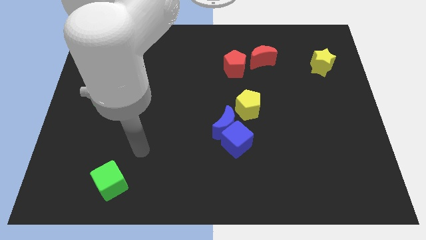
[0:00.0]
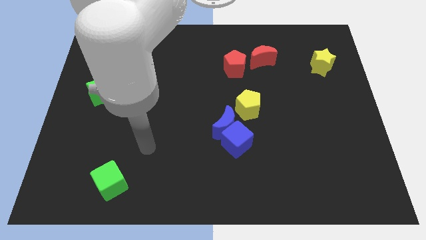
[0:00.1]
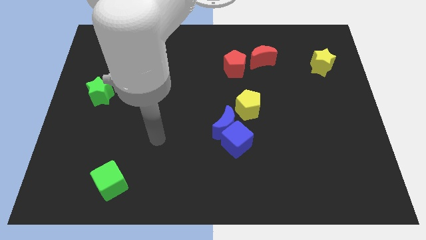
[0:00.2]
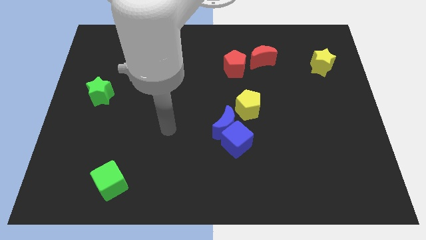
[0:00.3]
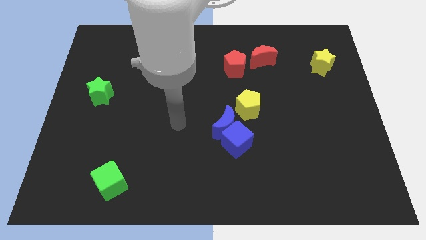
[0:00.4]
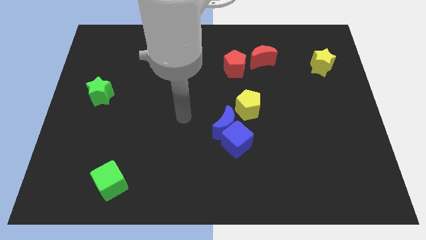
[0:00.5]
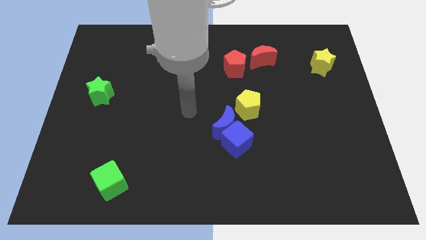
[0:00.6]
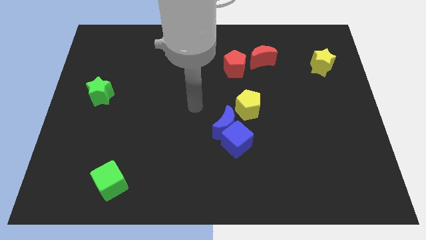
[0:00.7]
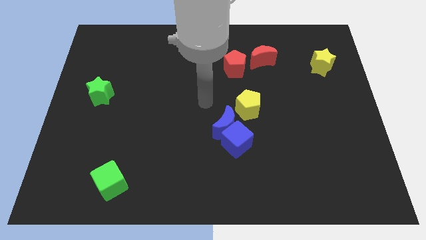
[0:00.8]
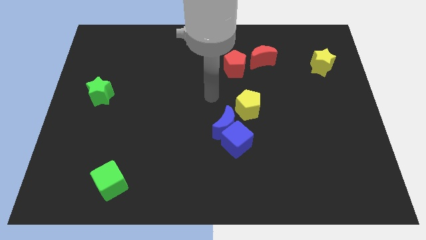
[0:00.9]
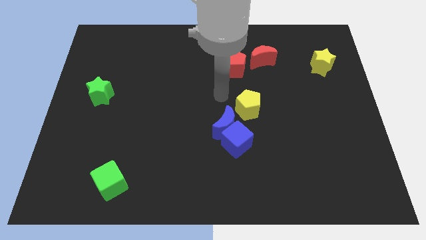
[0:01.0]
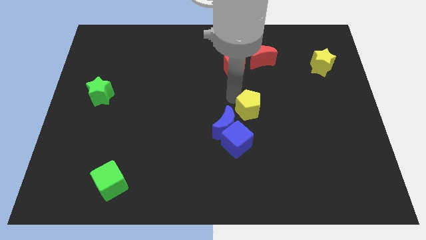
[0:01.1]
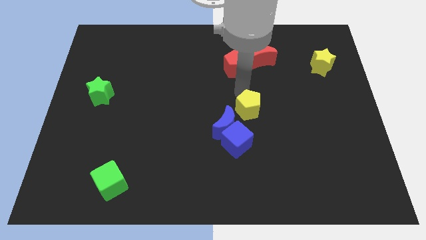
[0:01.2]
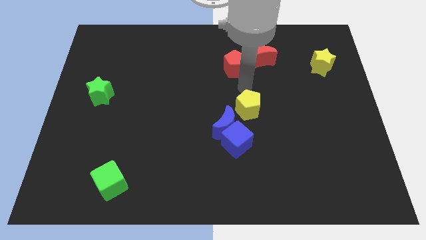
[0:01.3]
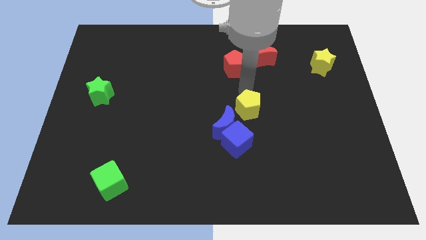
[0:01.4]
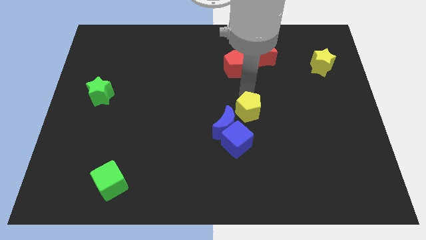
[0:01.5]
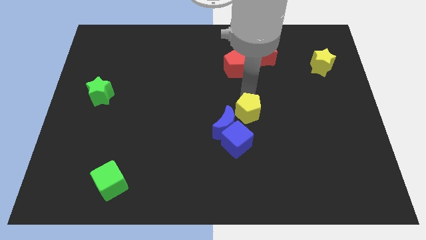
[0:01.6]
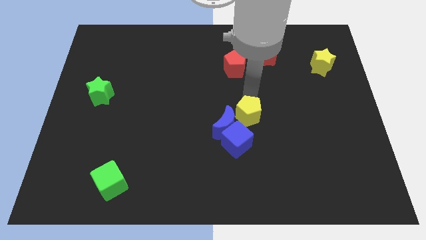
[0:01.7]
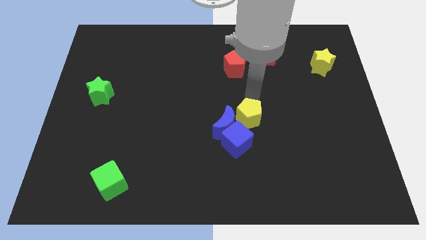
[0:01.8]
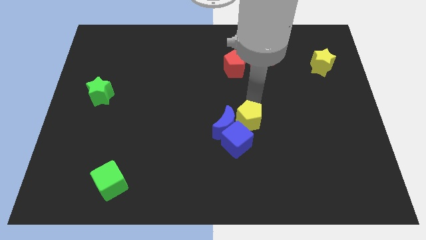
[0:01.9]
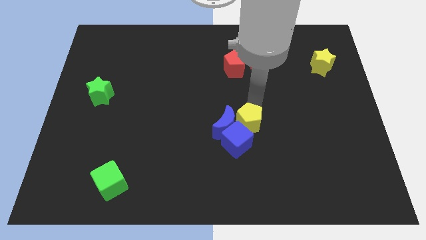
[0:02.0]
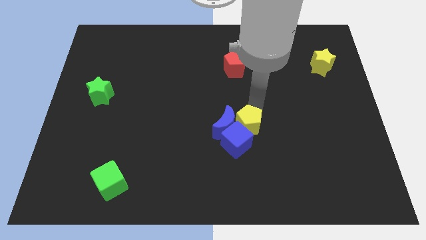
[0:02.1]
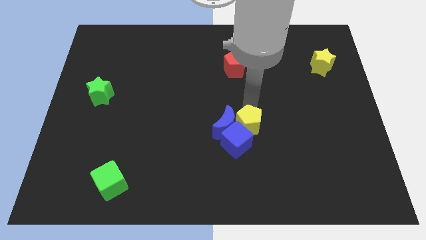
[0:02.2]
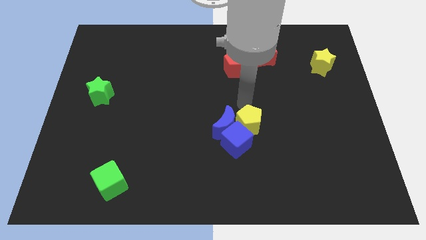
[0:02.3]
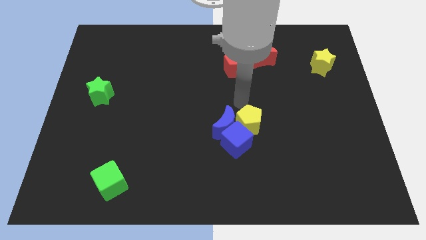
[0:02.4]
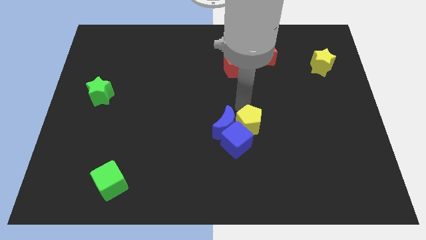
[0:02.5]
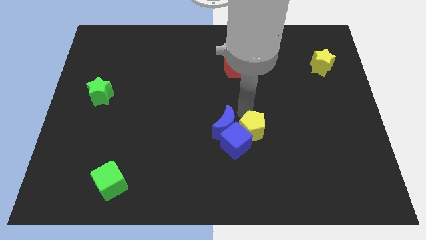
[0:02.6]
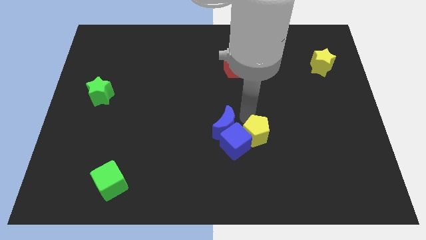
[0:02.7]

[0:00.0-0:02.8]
push the yellow pentagon down a little bit

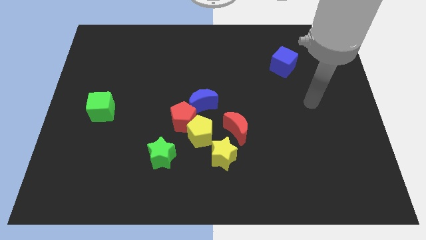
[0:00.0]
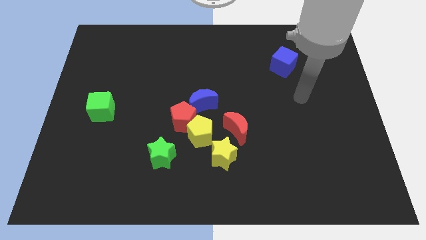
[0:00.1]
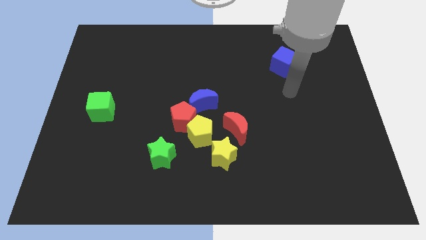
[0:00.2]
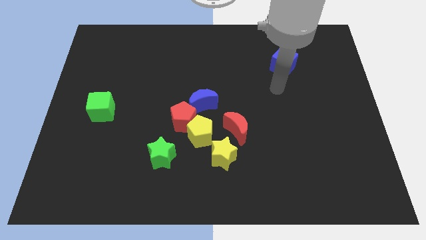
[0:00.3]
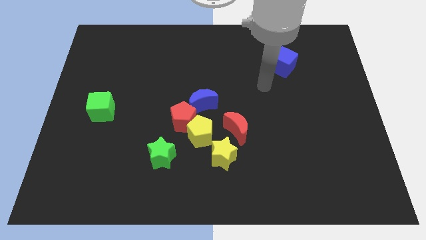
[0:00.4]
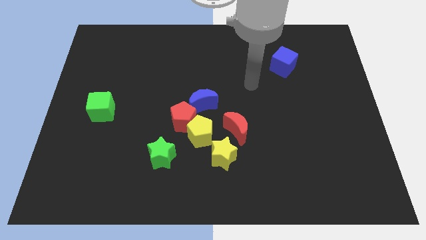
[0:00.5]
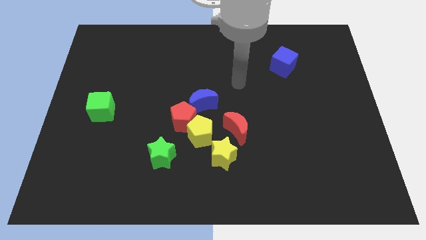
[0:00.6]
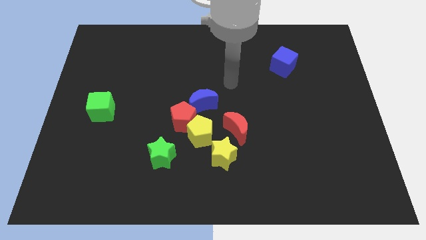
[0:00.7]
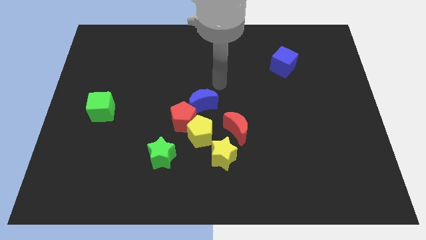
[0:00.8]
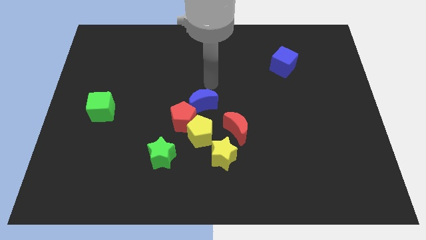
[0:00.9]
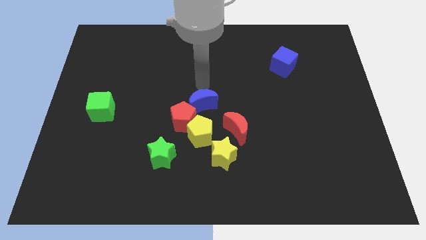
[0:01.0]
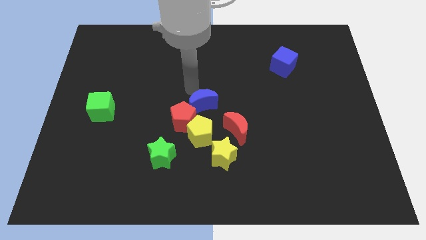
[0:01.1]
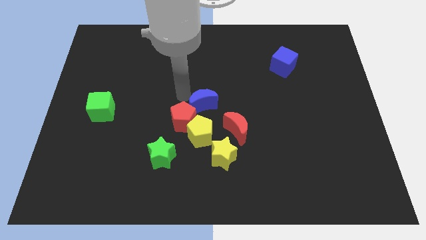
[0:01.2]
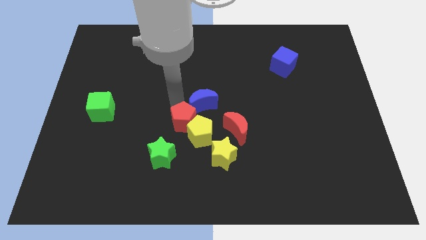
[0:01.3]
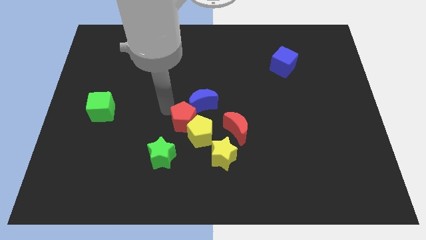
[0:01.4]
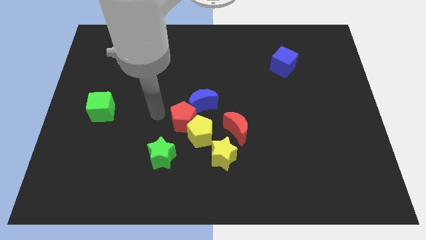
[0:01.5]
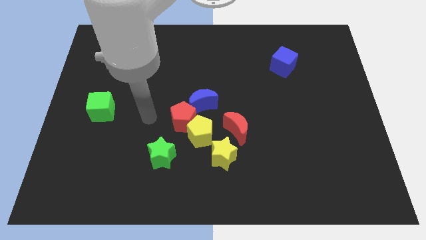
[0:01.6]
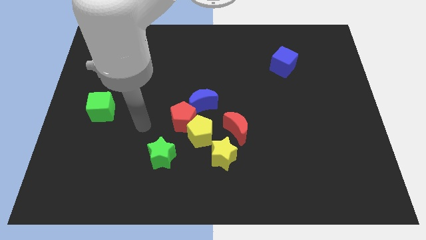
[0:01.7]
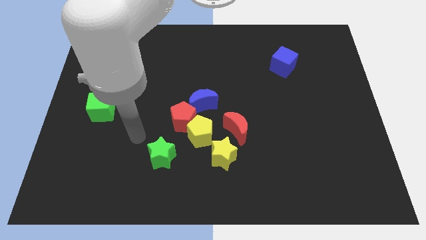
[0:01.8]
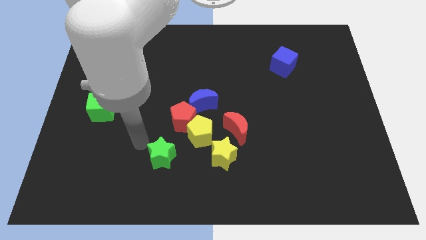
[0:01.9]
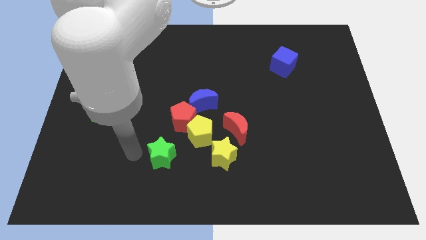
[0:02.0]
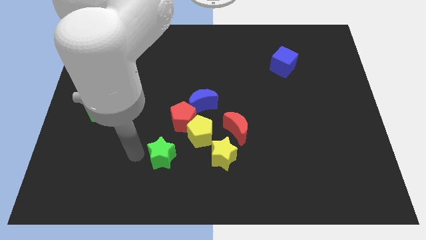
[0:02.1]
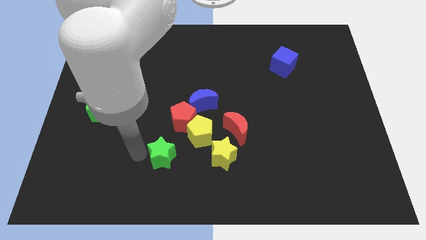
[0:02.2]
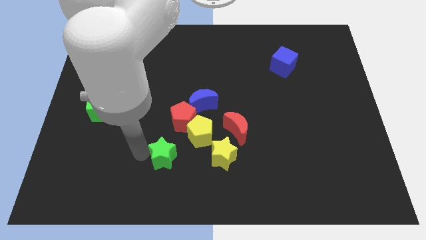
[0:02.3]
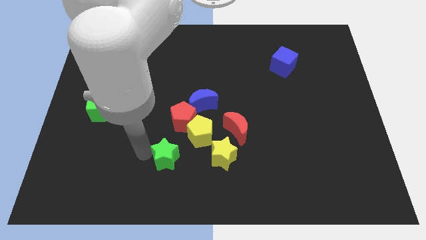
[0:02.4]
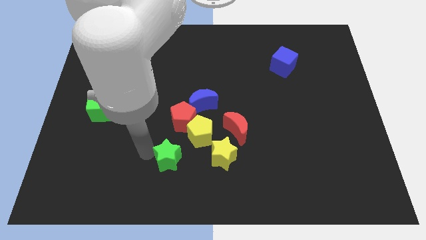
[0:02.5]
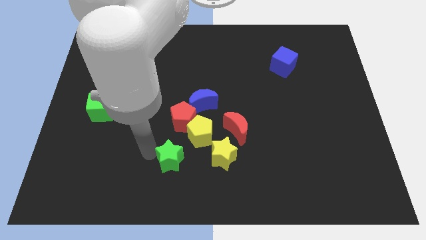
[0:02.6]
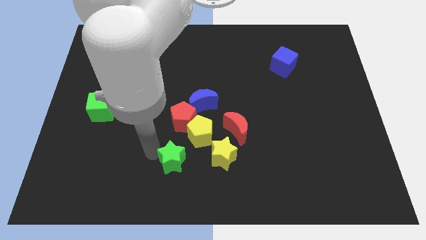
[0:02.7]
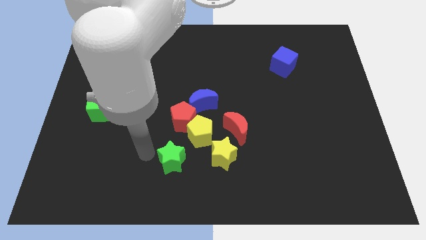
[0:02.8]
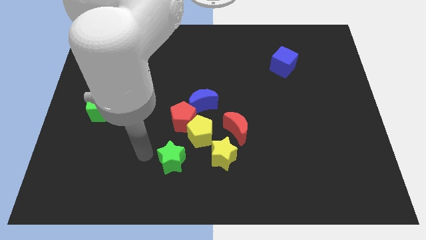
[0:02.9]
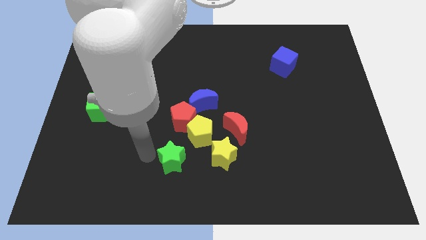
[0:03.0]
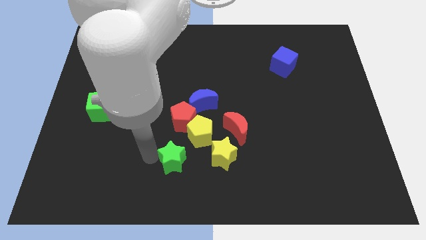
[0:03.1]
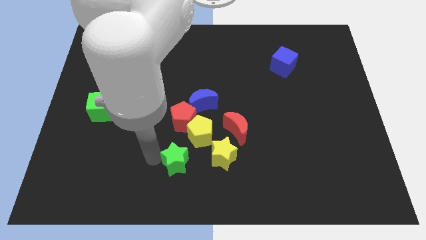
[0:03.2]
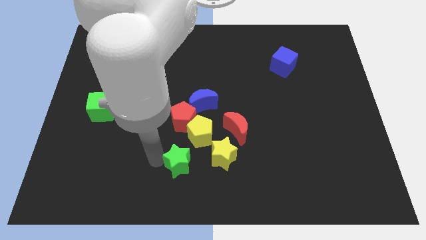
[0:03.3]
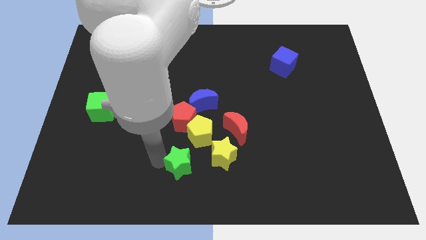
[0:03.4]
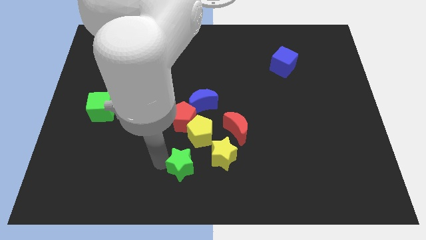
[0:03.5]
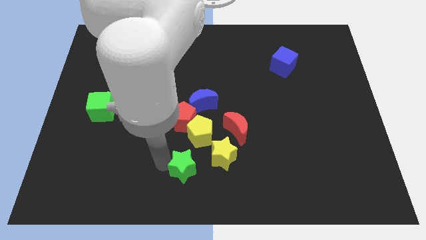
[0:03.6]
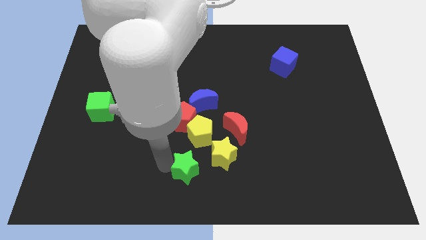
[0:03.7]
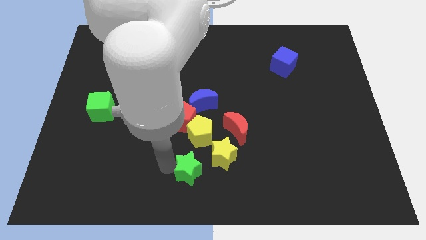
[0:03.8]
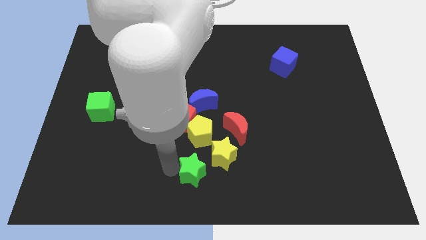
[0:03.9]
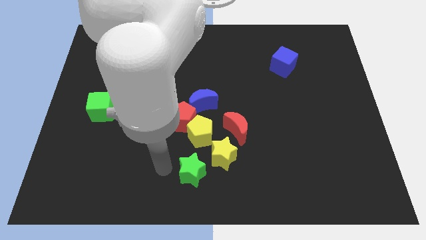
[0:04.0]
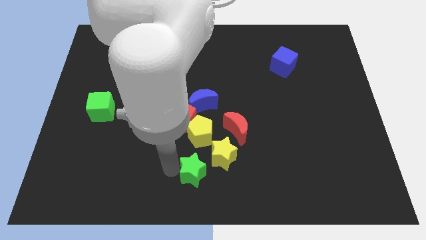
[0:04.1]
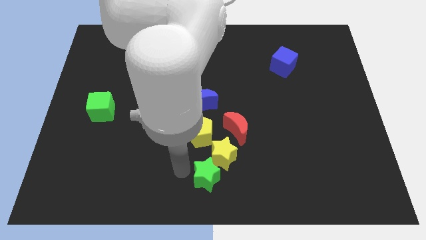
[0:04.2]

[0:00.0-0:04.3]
slide the green star to the right a bit

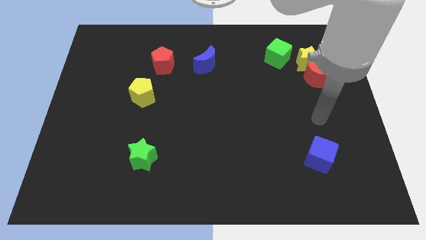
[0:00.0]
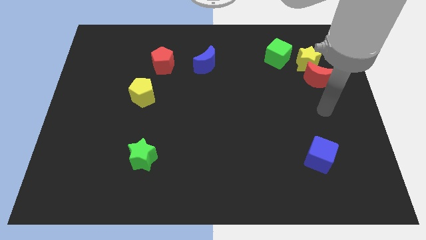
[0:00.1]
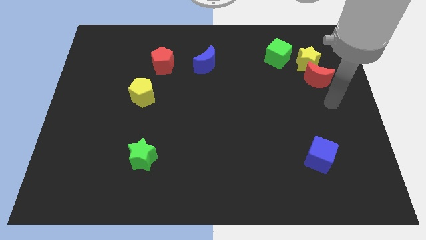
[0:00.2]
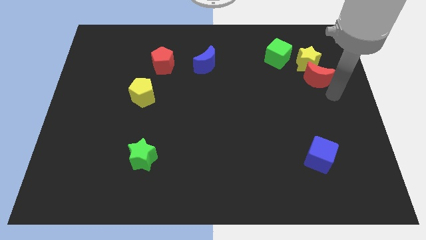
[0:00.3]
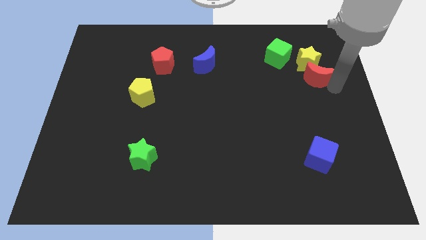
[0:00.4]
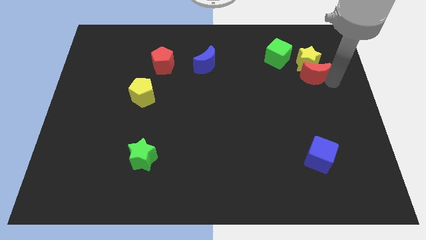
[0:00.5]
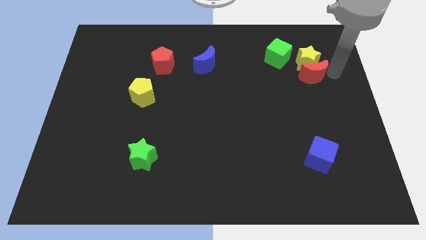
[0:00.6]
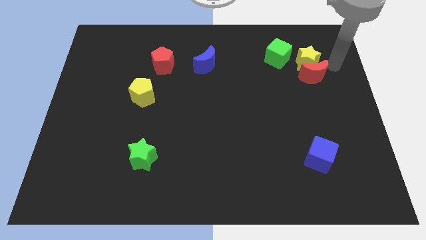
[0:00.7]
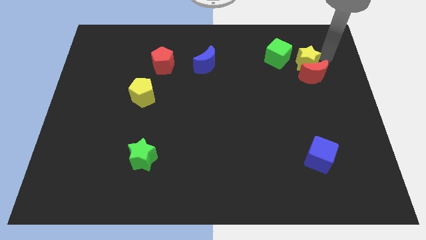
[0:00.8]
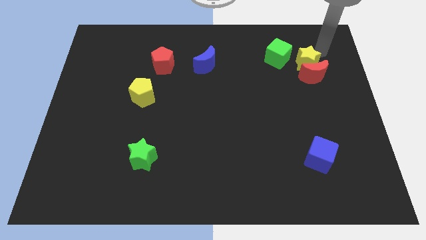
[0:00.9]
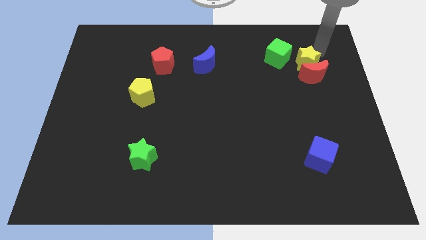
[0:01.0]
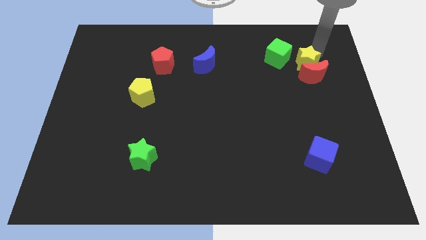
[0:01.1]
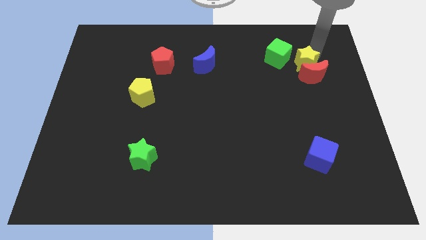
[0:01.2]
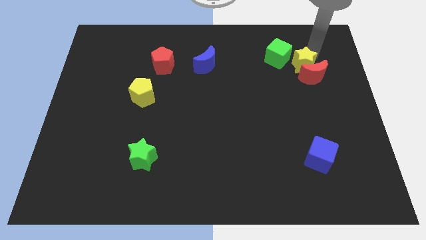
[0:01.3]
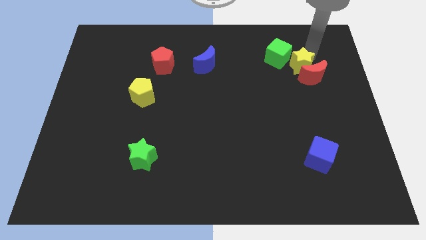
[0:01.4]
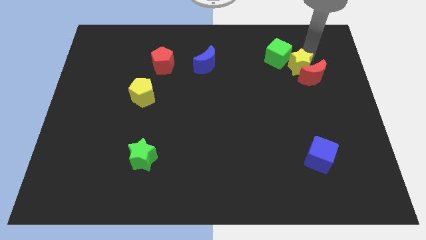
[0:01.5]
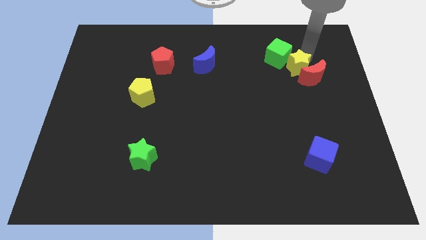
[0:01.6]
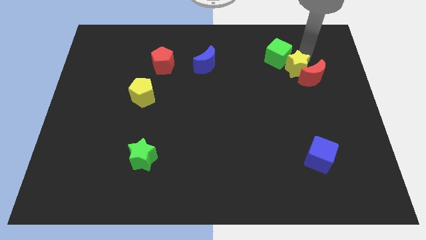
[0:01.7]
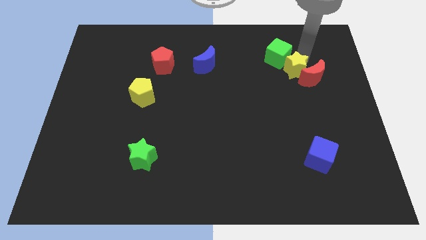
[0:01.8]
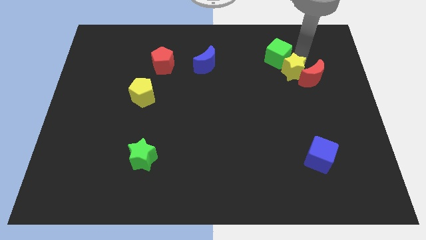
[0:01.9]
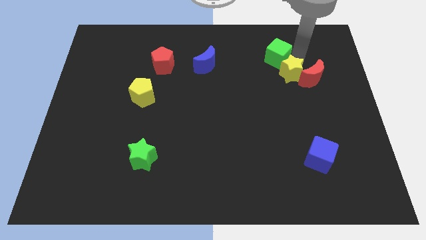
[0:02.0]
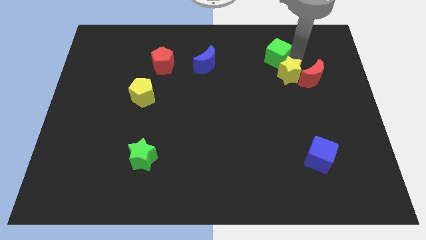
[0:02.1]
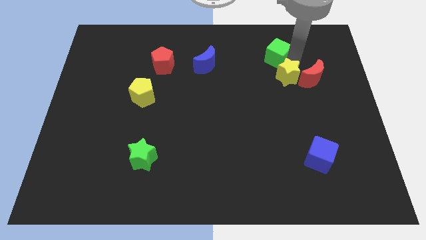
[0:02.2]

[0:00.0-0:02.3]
push the yellow star down and left a little
